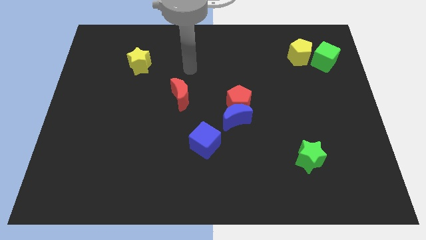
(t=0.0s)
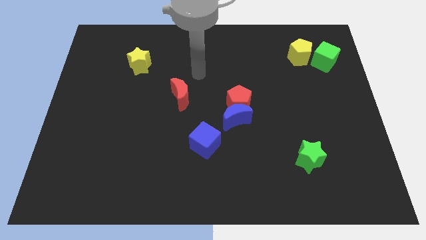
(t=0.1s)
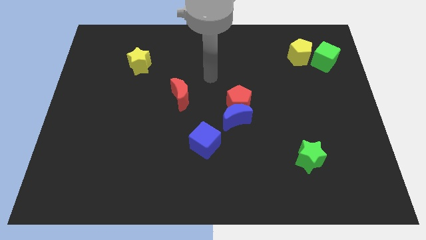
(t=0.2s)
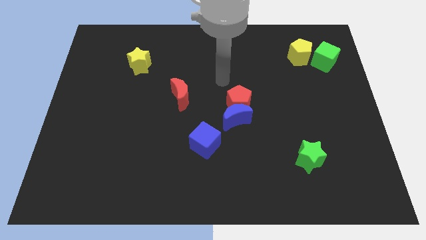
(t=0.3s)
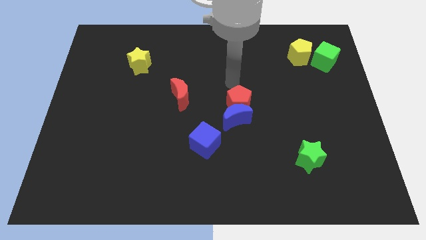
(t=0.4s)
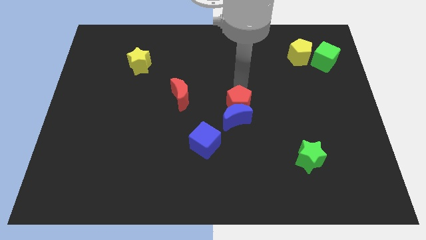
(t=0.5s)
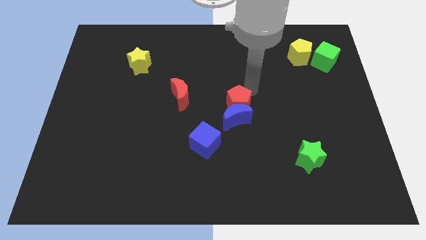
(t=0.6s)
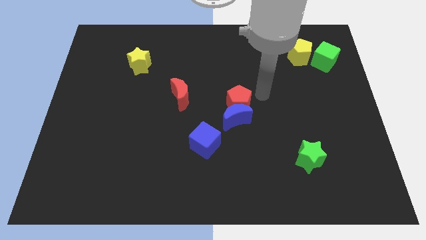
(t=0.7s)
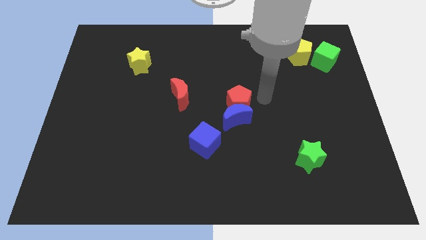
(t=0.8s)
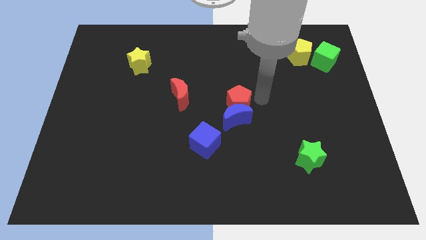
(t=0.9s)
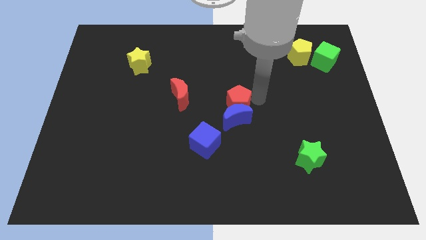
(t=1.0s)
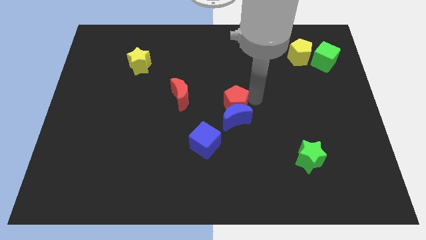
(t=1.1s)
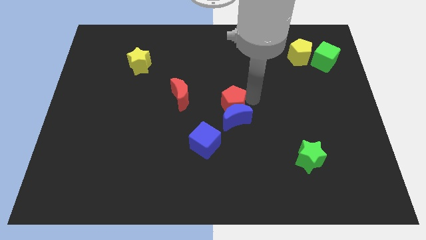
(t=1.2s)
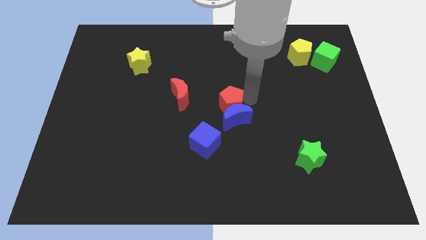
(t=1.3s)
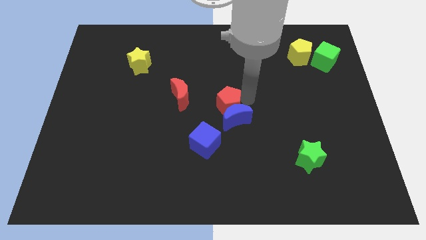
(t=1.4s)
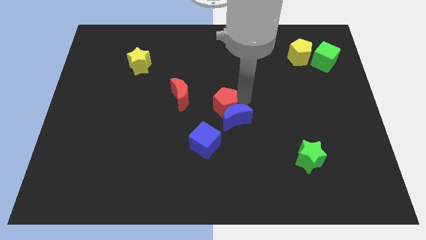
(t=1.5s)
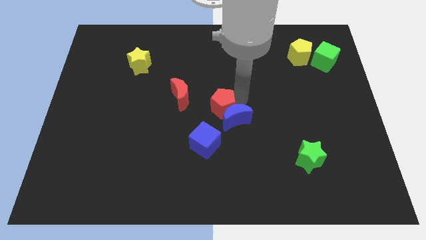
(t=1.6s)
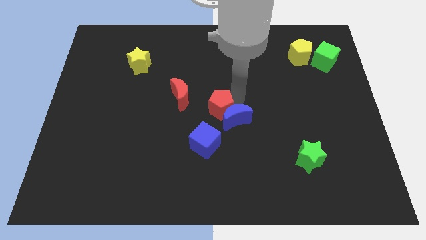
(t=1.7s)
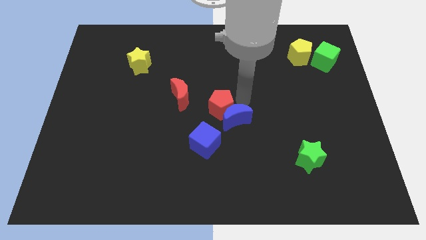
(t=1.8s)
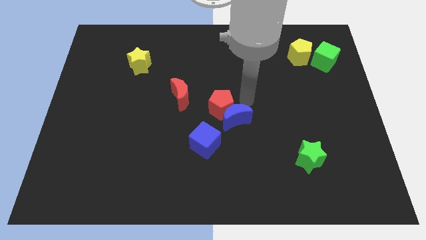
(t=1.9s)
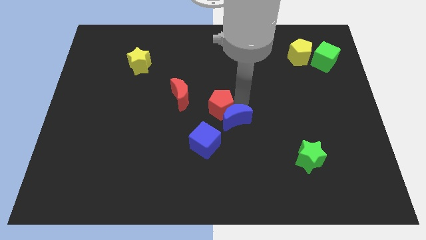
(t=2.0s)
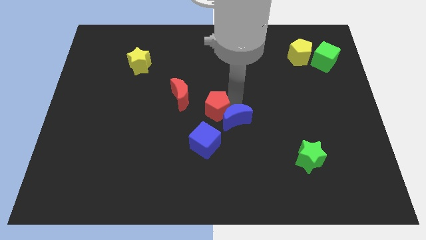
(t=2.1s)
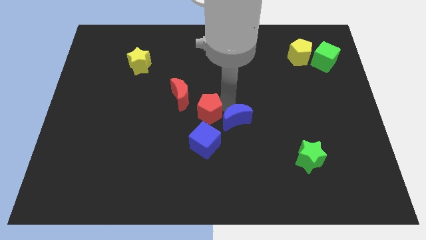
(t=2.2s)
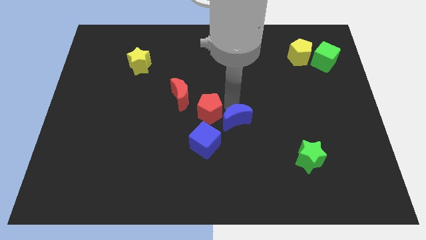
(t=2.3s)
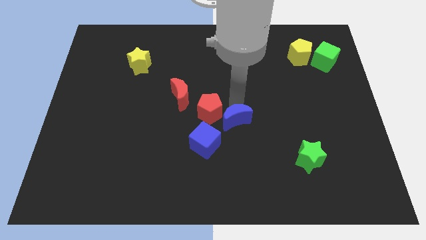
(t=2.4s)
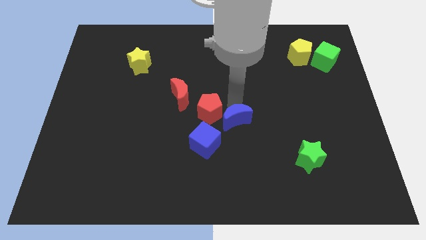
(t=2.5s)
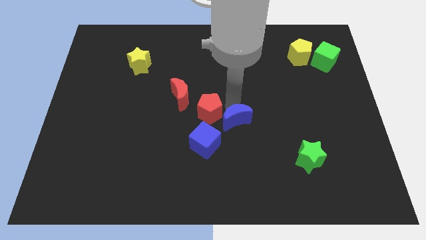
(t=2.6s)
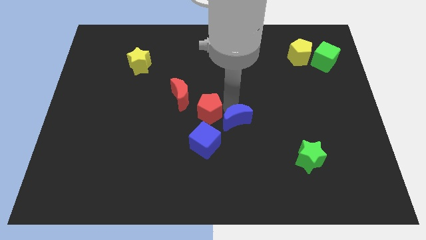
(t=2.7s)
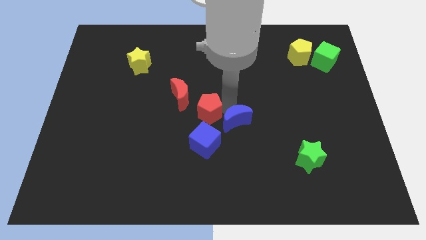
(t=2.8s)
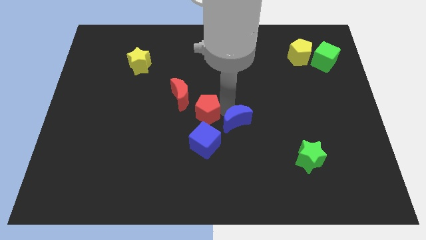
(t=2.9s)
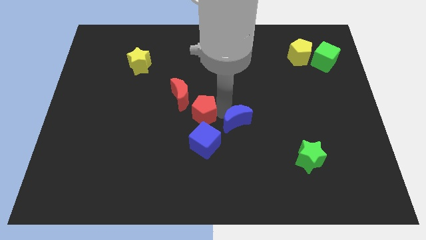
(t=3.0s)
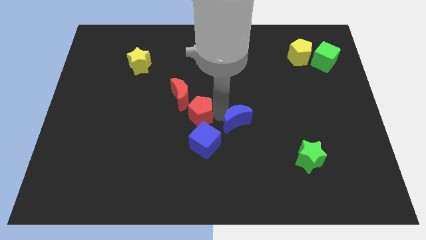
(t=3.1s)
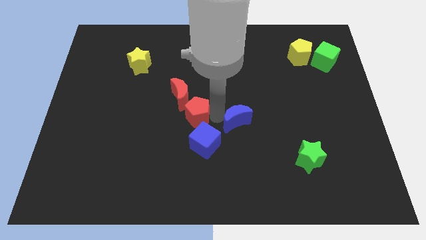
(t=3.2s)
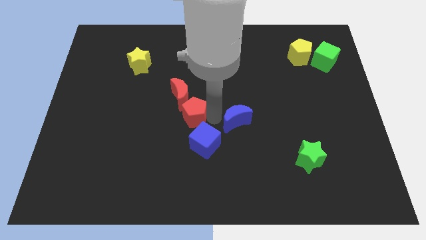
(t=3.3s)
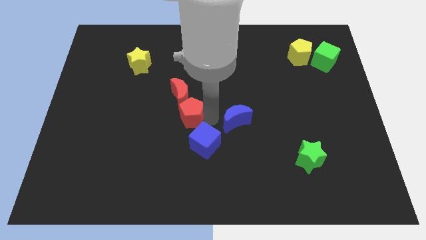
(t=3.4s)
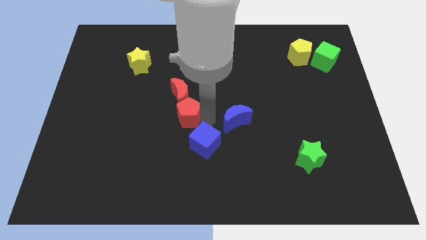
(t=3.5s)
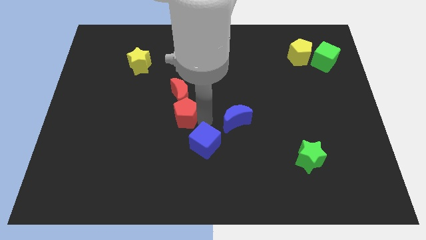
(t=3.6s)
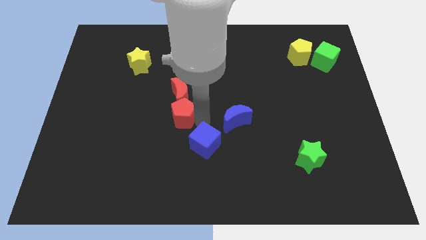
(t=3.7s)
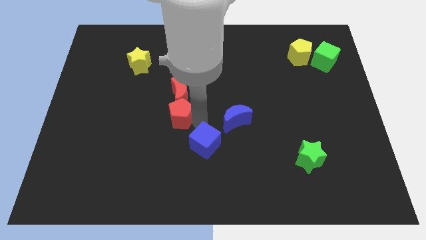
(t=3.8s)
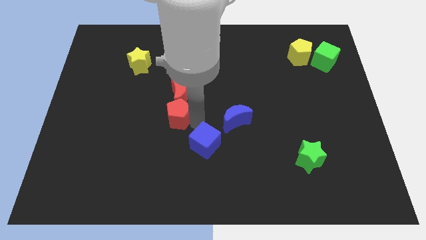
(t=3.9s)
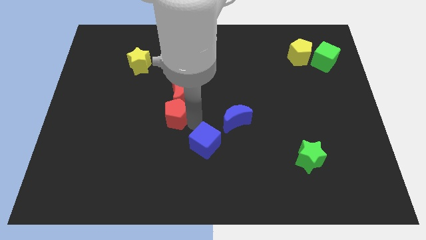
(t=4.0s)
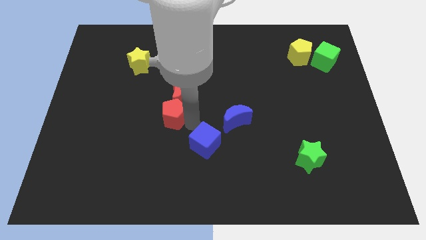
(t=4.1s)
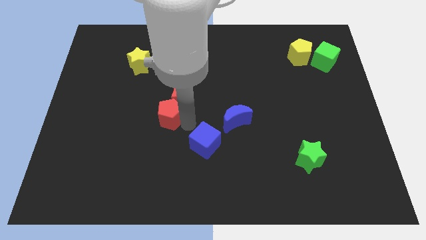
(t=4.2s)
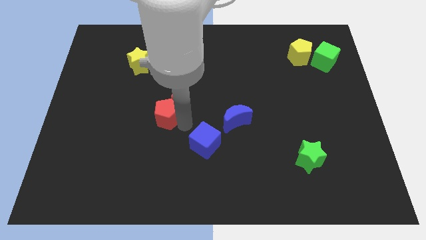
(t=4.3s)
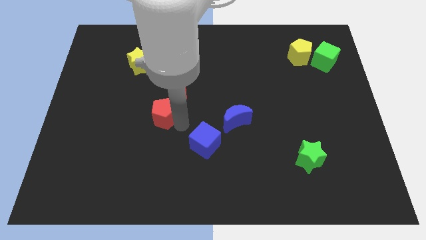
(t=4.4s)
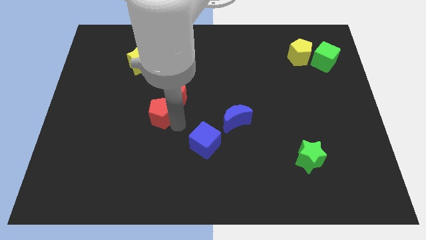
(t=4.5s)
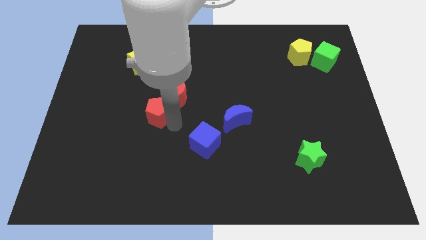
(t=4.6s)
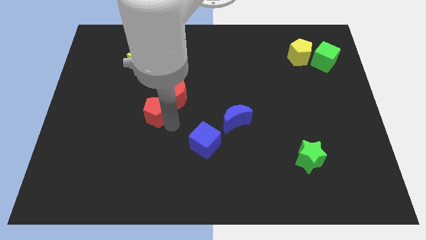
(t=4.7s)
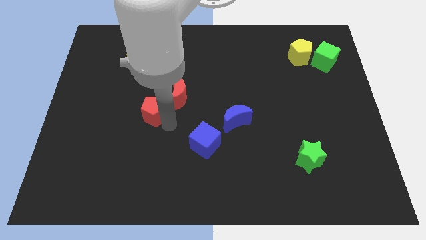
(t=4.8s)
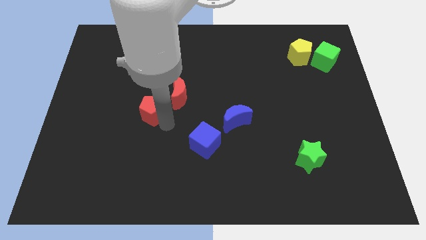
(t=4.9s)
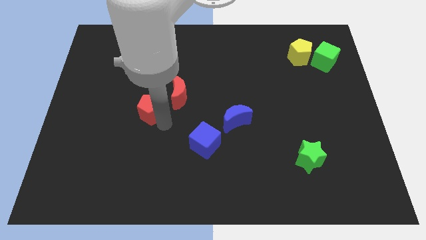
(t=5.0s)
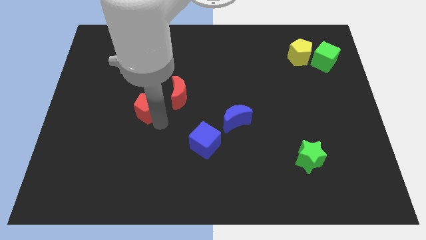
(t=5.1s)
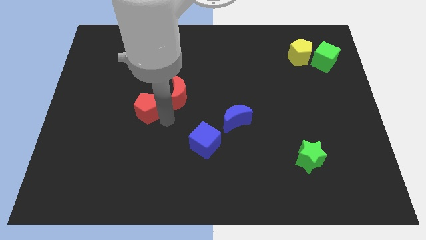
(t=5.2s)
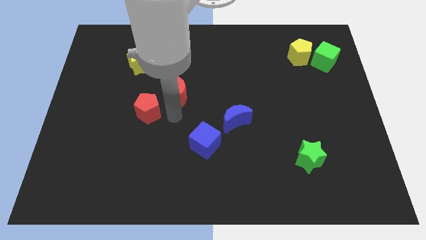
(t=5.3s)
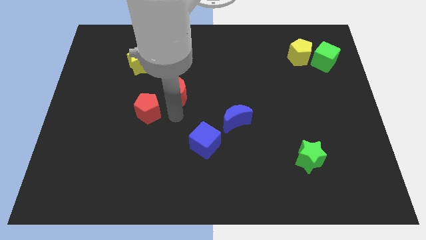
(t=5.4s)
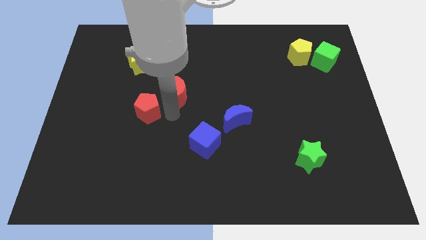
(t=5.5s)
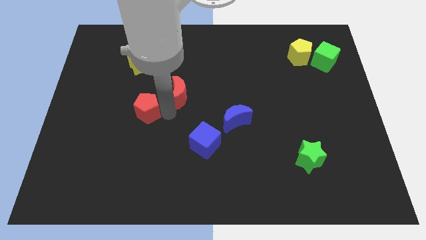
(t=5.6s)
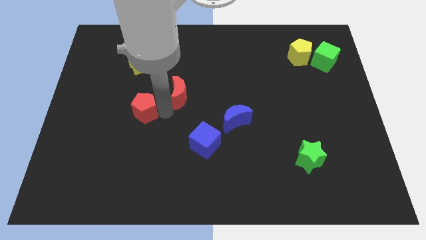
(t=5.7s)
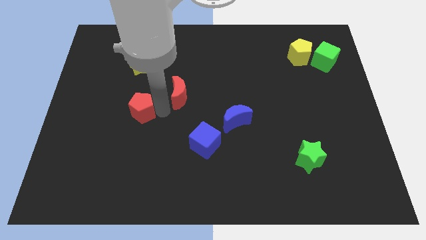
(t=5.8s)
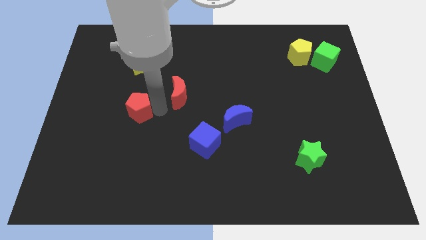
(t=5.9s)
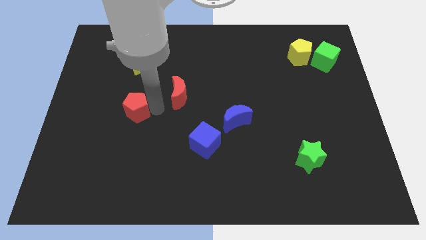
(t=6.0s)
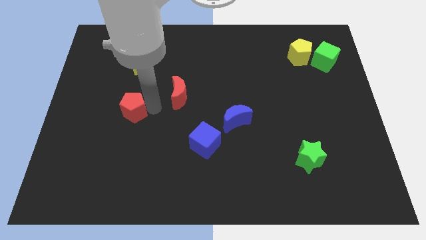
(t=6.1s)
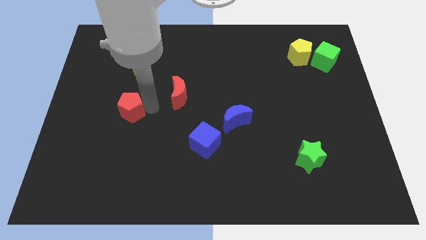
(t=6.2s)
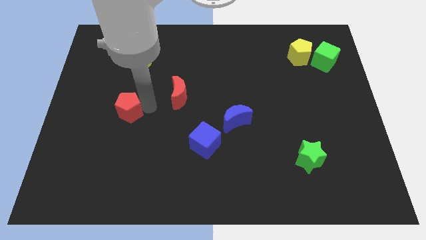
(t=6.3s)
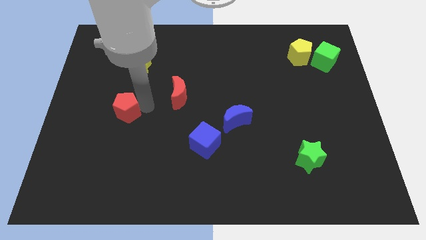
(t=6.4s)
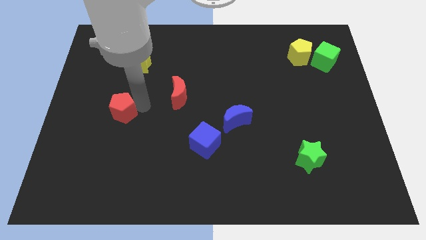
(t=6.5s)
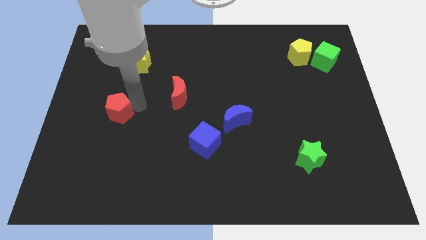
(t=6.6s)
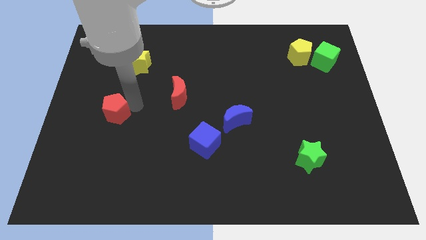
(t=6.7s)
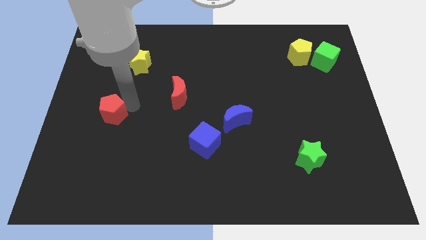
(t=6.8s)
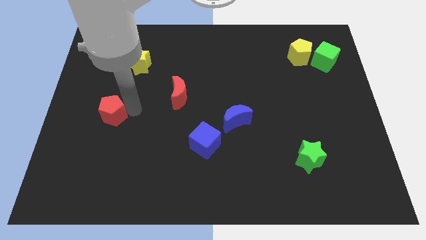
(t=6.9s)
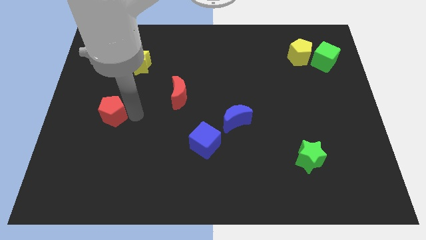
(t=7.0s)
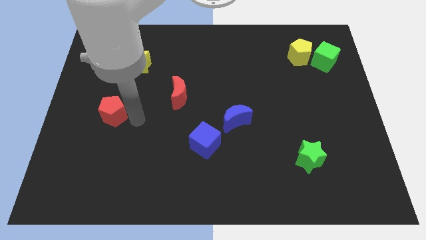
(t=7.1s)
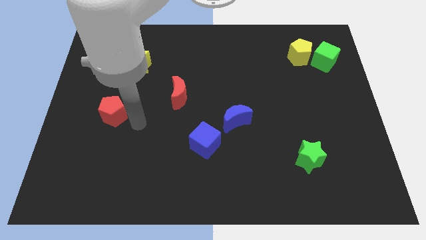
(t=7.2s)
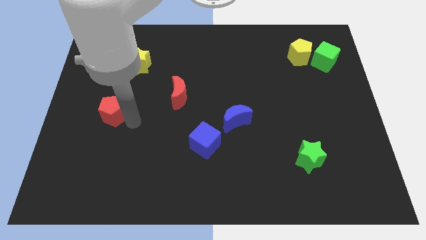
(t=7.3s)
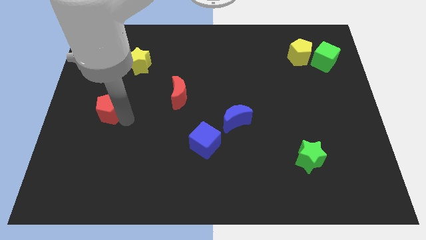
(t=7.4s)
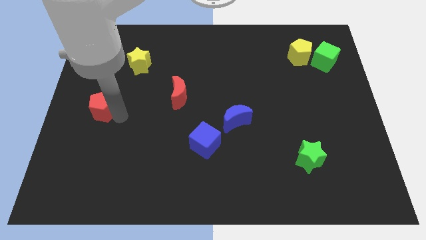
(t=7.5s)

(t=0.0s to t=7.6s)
push the red pentagon to the left side of the board
